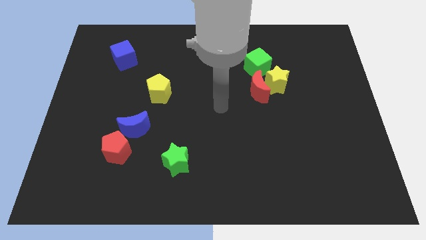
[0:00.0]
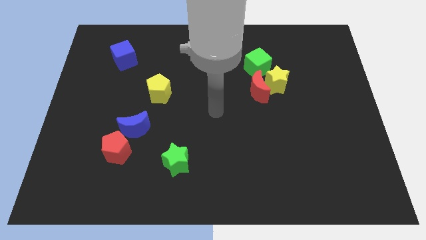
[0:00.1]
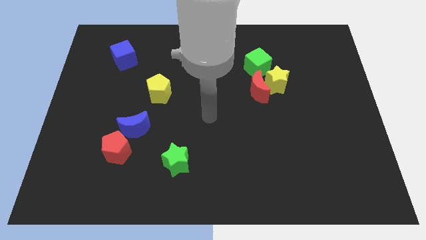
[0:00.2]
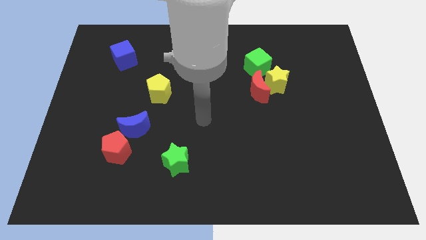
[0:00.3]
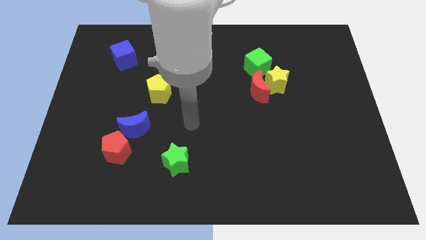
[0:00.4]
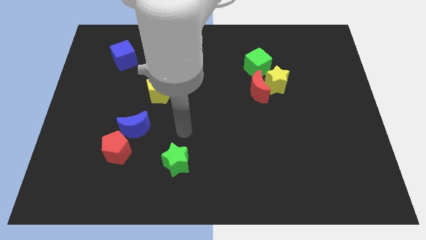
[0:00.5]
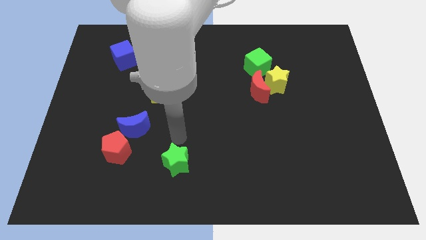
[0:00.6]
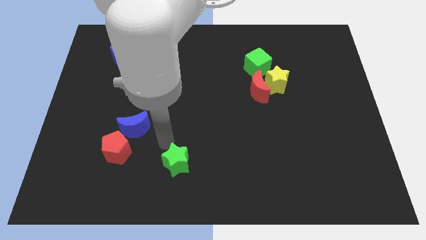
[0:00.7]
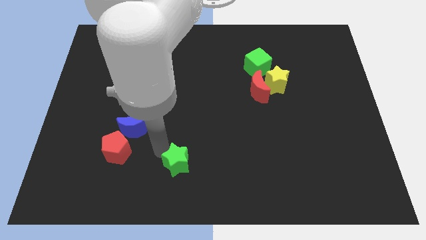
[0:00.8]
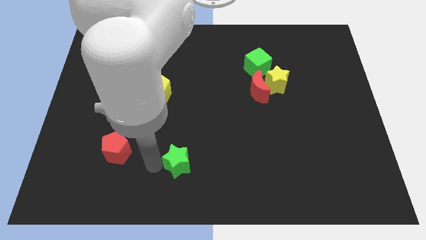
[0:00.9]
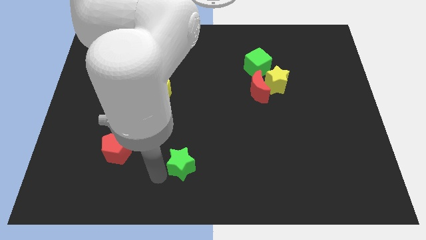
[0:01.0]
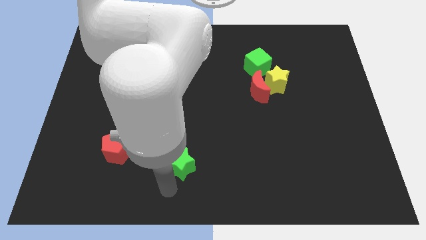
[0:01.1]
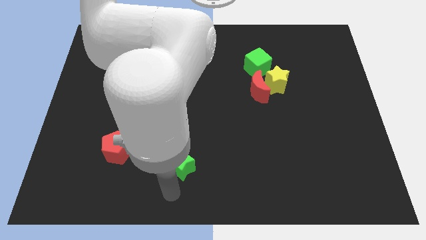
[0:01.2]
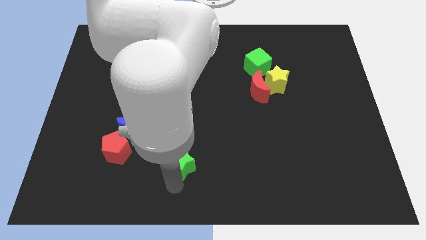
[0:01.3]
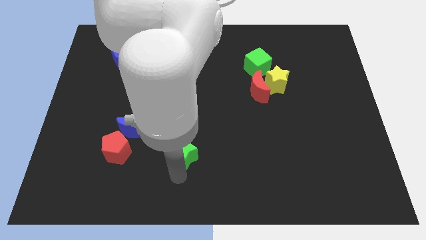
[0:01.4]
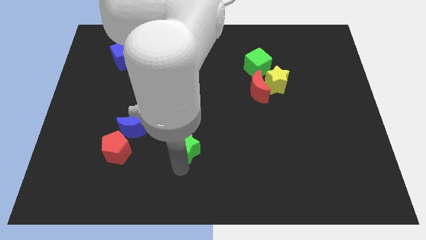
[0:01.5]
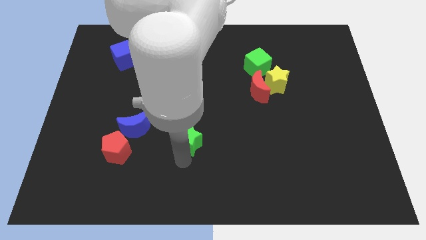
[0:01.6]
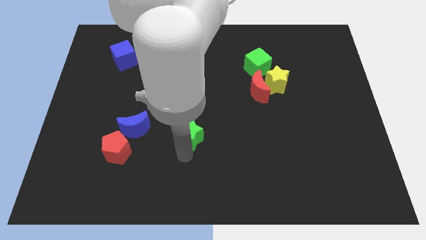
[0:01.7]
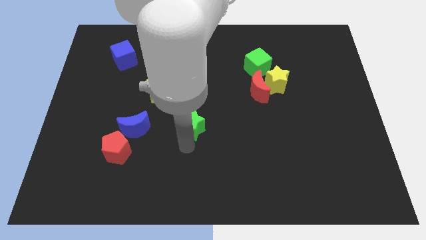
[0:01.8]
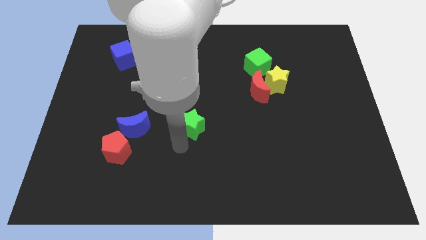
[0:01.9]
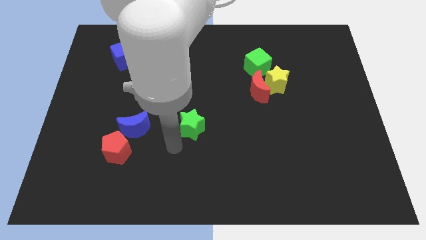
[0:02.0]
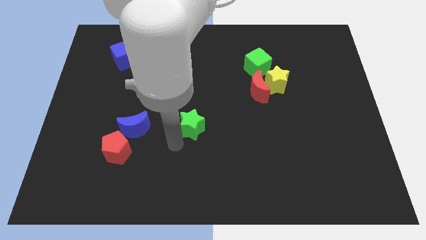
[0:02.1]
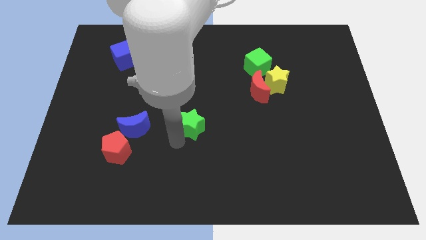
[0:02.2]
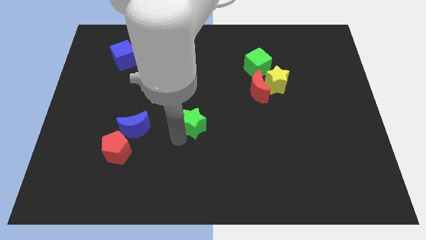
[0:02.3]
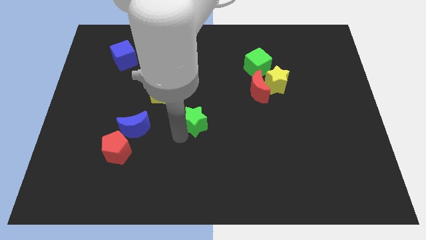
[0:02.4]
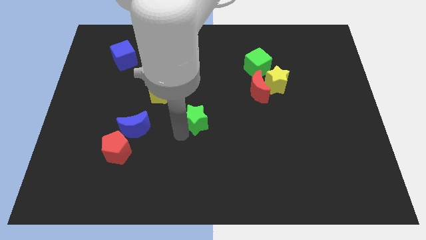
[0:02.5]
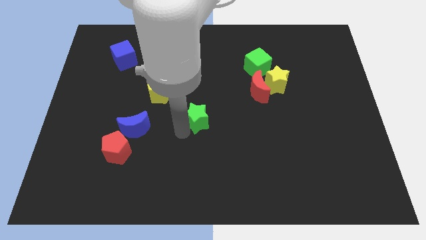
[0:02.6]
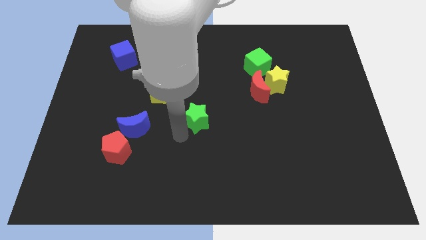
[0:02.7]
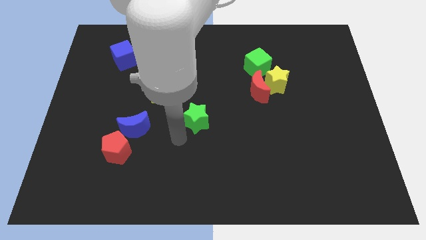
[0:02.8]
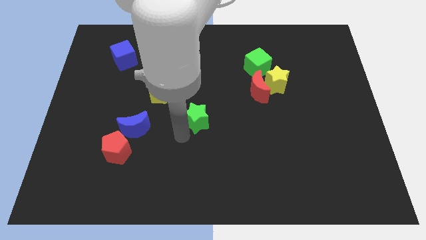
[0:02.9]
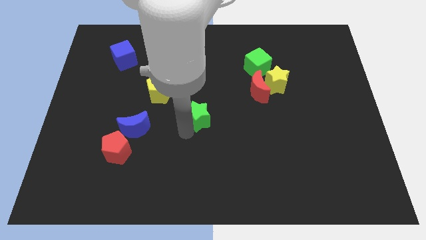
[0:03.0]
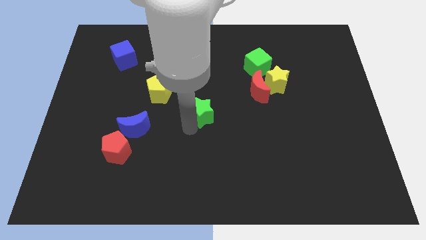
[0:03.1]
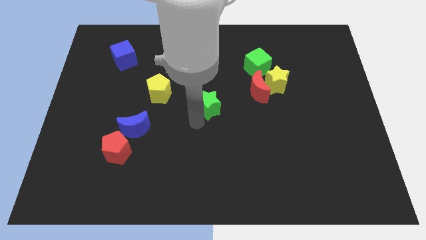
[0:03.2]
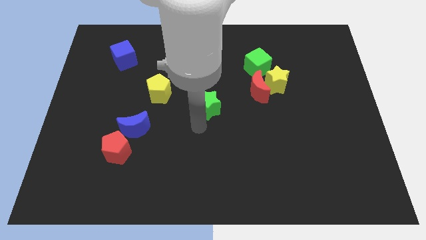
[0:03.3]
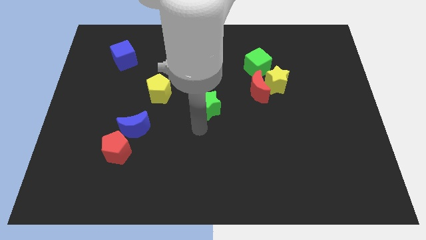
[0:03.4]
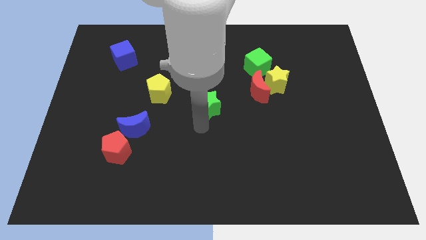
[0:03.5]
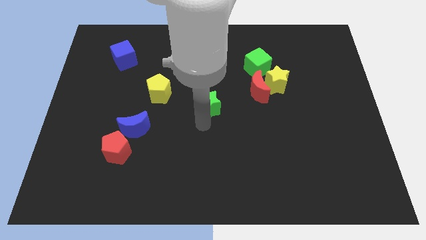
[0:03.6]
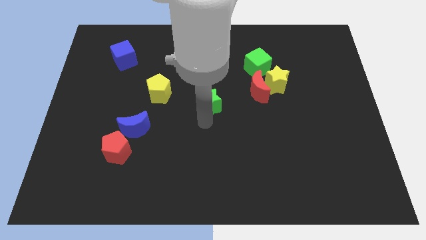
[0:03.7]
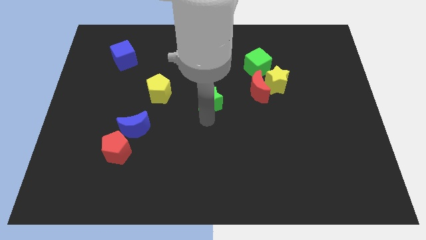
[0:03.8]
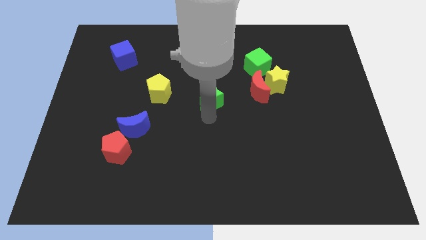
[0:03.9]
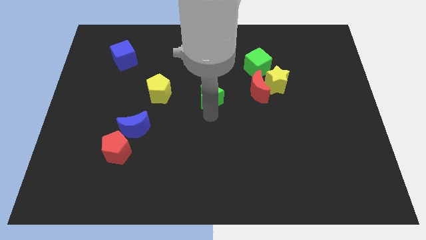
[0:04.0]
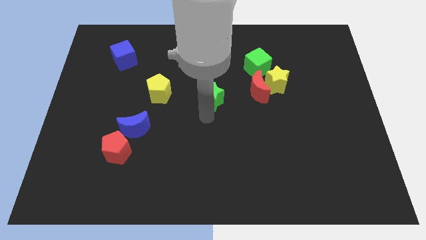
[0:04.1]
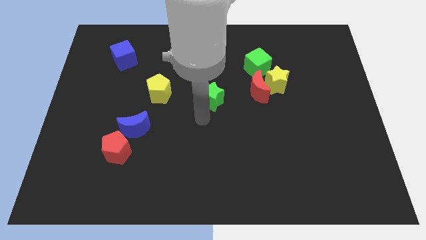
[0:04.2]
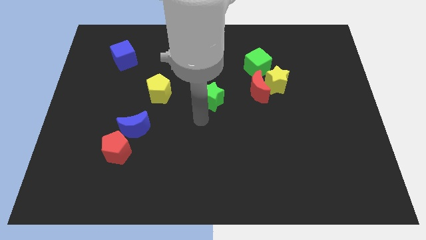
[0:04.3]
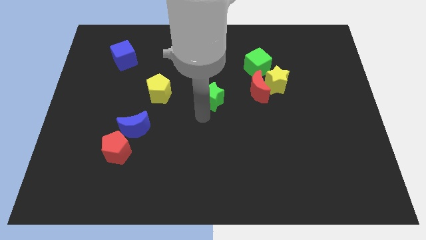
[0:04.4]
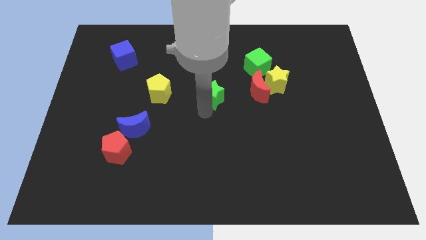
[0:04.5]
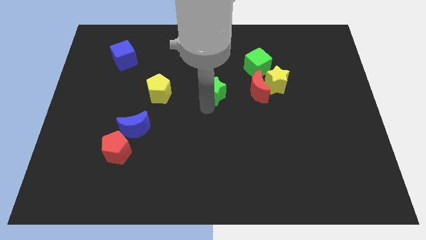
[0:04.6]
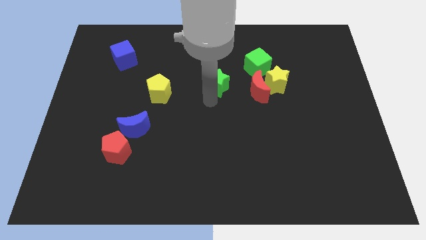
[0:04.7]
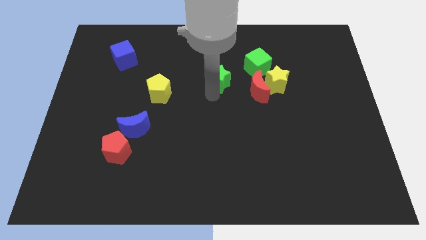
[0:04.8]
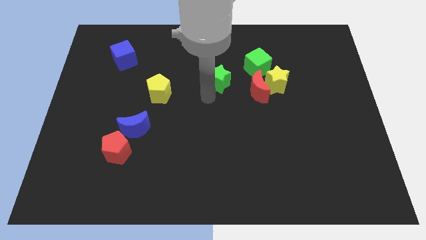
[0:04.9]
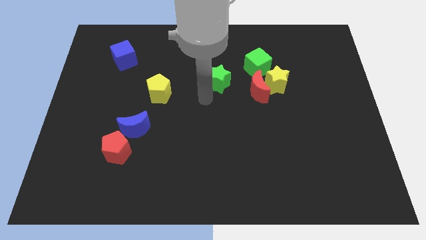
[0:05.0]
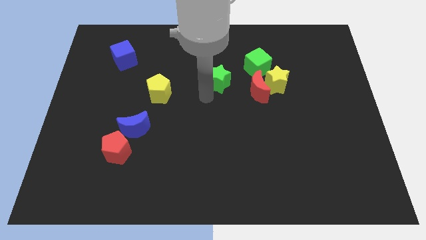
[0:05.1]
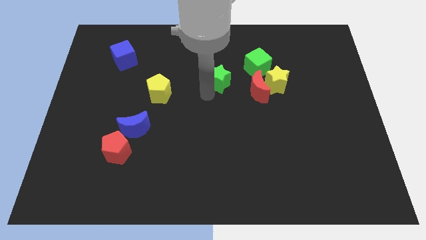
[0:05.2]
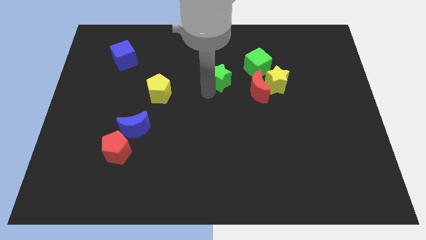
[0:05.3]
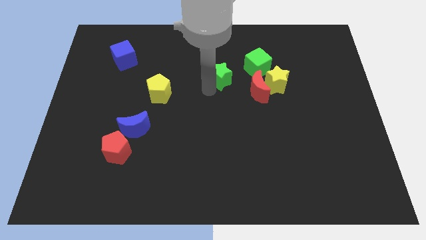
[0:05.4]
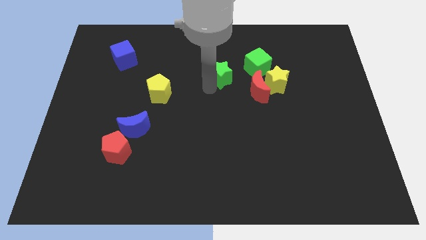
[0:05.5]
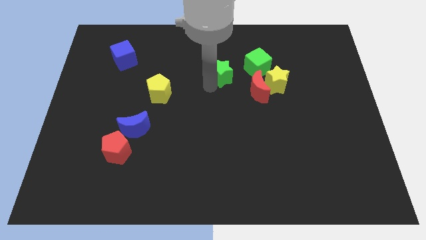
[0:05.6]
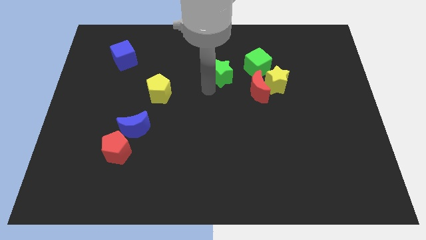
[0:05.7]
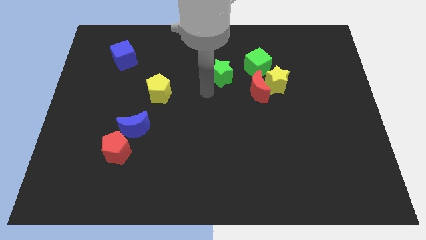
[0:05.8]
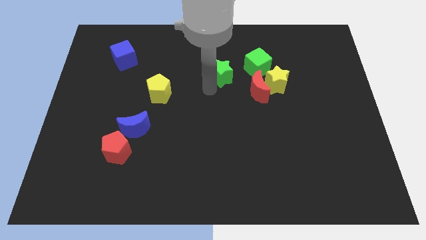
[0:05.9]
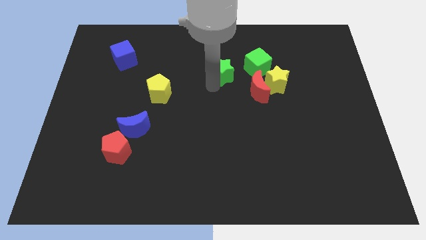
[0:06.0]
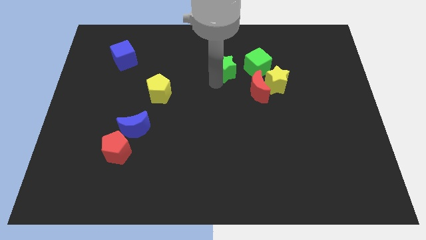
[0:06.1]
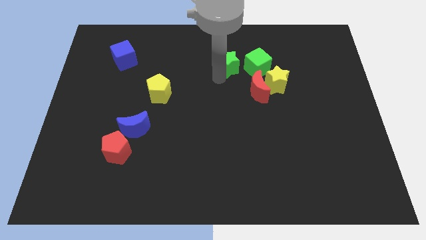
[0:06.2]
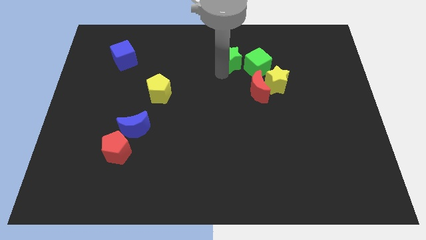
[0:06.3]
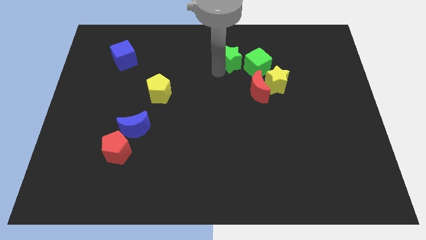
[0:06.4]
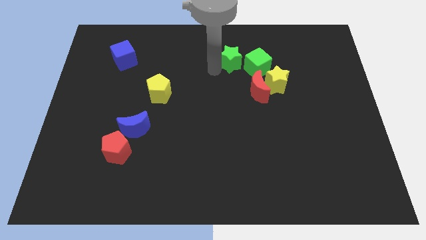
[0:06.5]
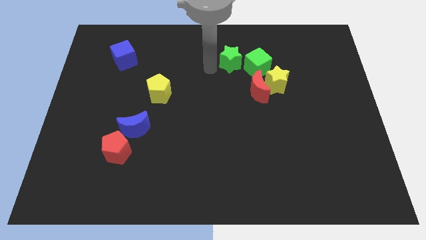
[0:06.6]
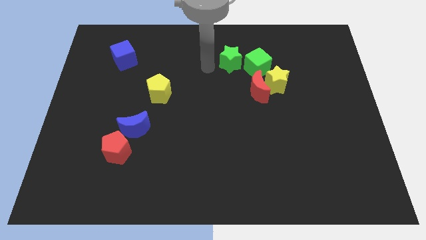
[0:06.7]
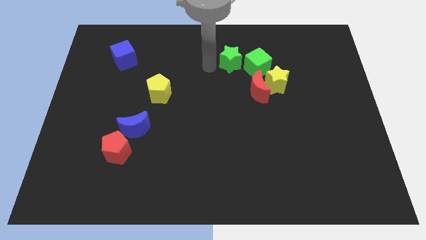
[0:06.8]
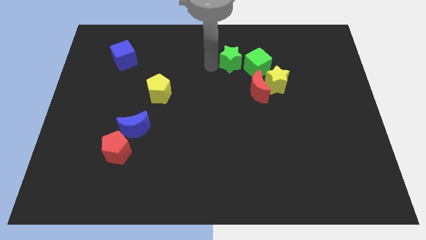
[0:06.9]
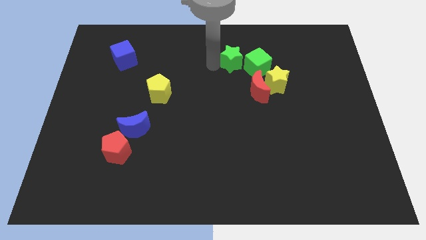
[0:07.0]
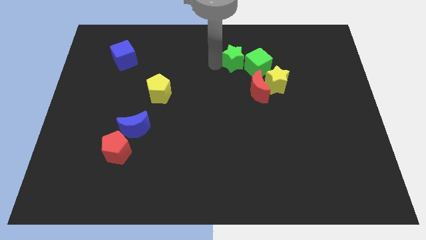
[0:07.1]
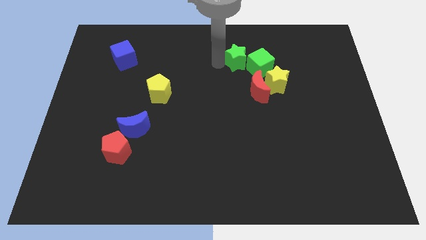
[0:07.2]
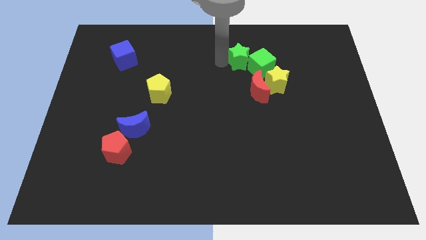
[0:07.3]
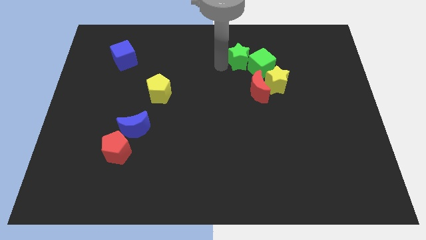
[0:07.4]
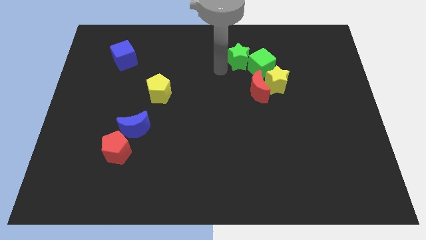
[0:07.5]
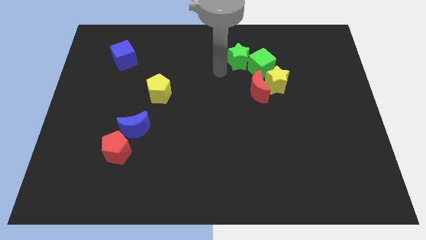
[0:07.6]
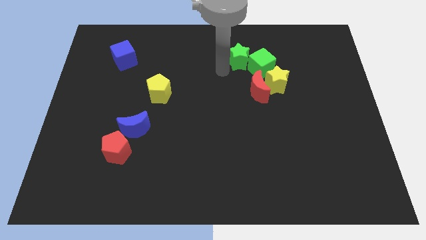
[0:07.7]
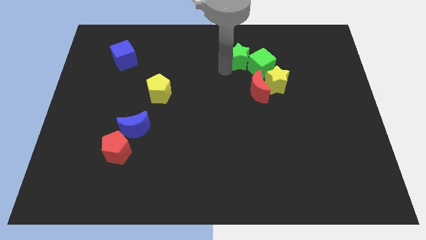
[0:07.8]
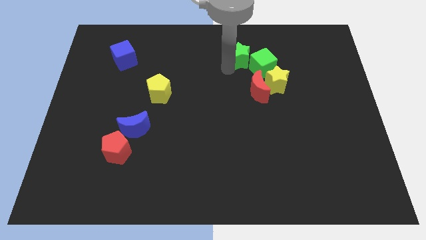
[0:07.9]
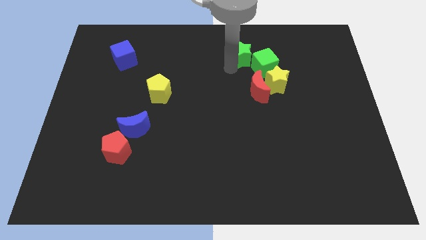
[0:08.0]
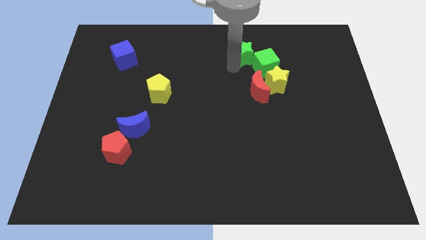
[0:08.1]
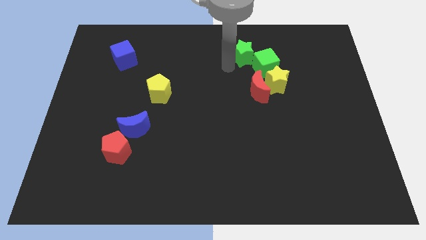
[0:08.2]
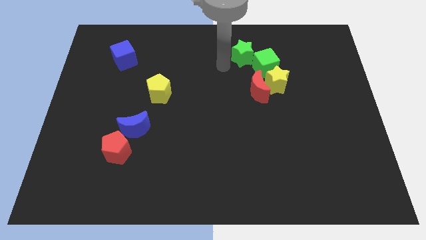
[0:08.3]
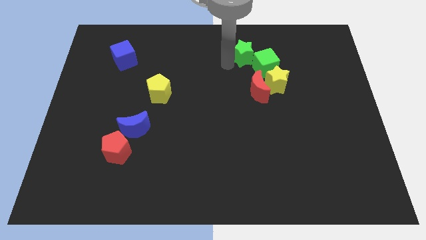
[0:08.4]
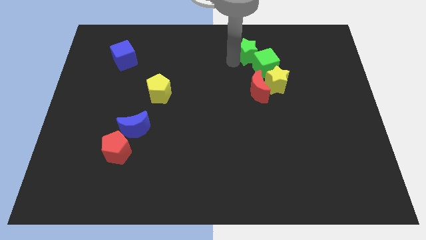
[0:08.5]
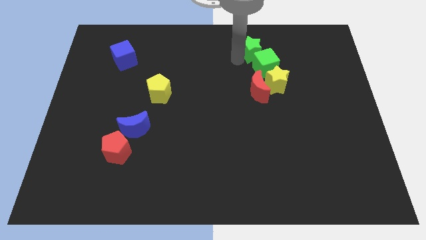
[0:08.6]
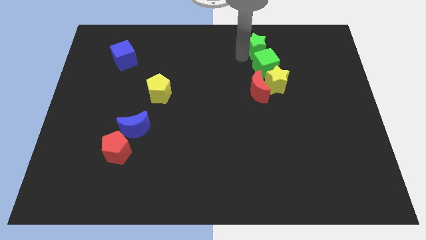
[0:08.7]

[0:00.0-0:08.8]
slide the green star to the top of the yellow star
